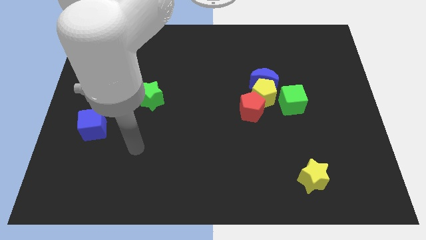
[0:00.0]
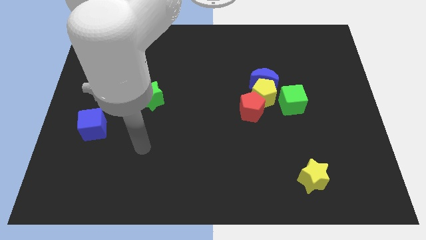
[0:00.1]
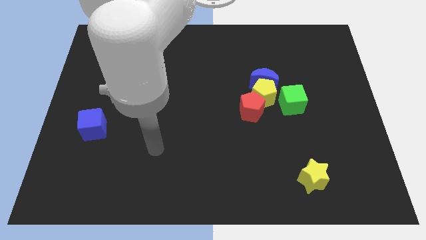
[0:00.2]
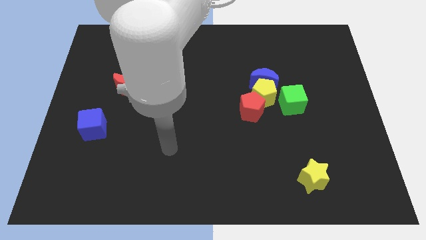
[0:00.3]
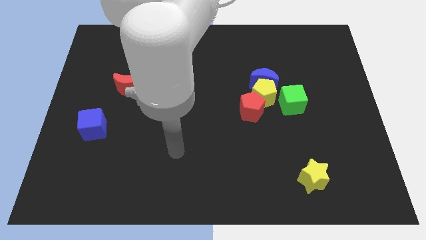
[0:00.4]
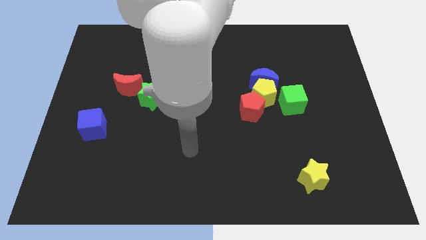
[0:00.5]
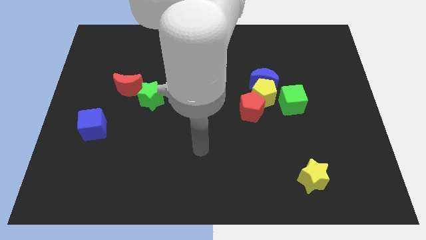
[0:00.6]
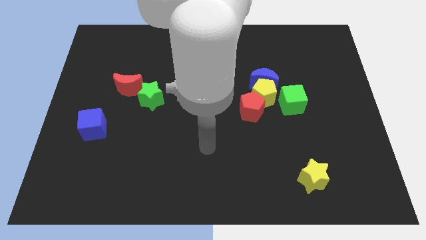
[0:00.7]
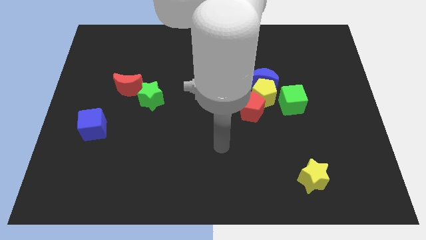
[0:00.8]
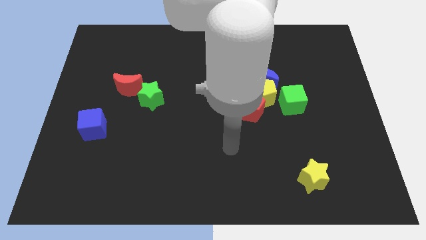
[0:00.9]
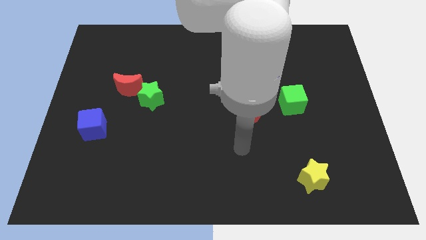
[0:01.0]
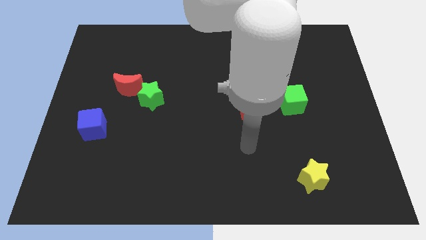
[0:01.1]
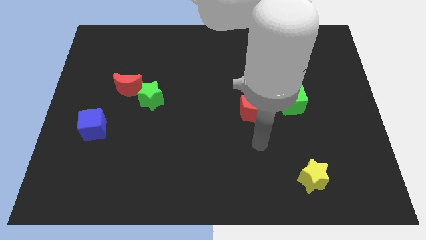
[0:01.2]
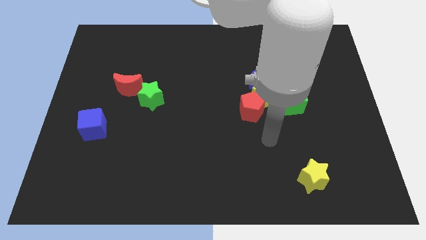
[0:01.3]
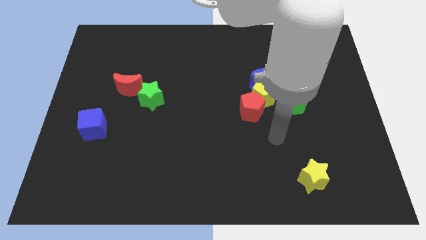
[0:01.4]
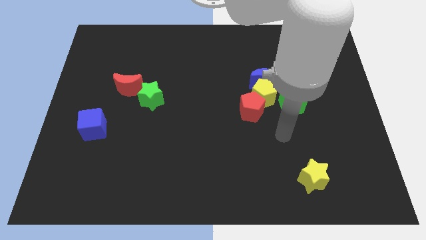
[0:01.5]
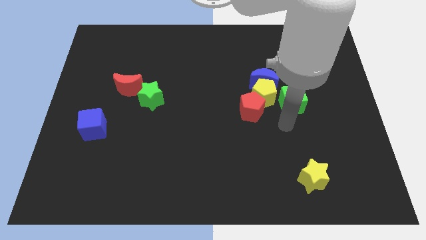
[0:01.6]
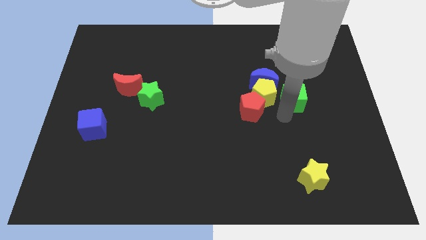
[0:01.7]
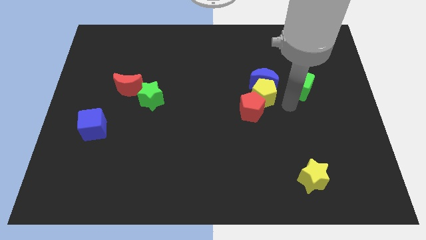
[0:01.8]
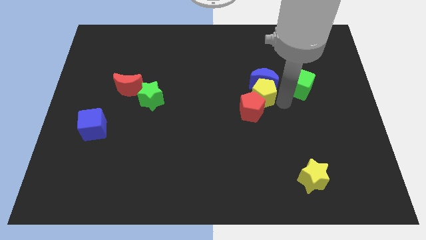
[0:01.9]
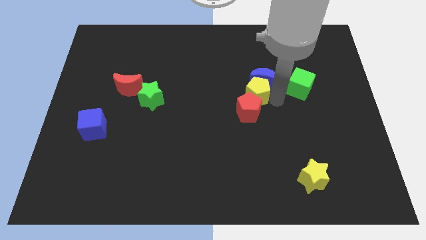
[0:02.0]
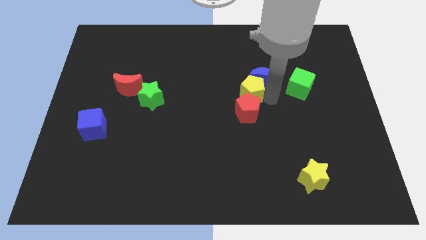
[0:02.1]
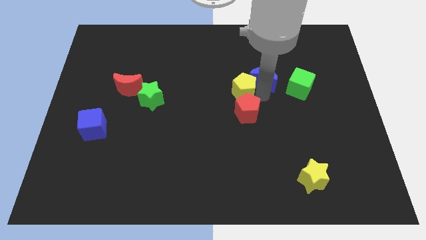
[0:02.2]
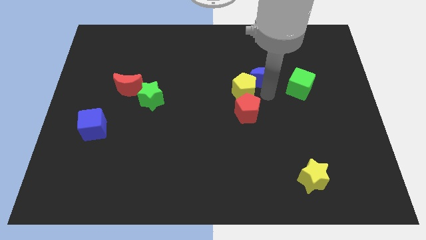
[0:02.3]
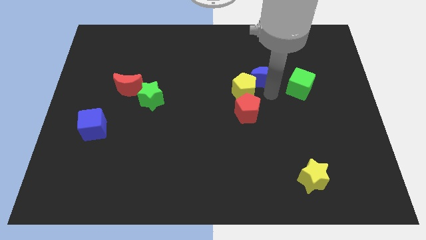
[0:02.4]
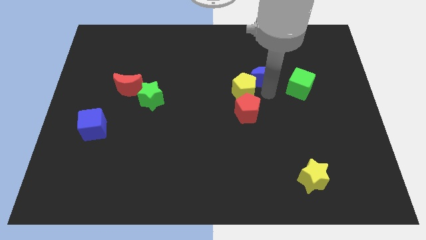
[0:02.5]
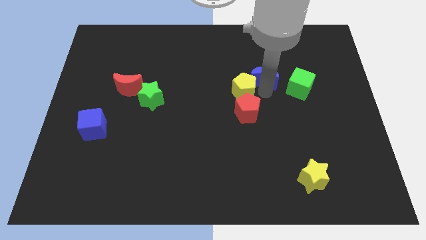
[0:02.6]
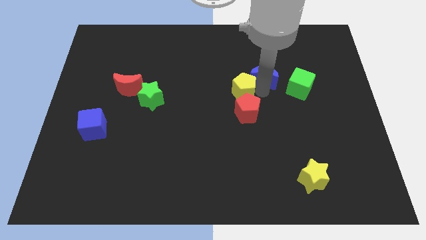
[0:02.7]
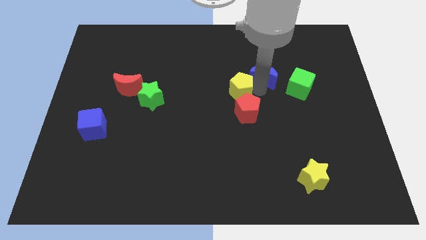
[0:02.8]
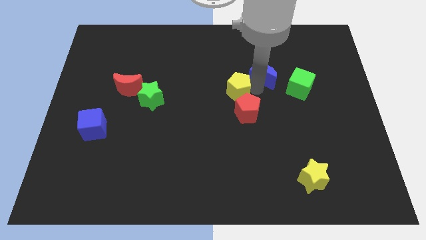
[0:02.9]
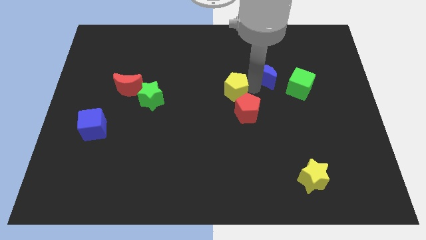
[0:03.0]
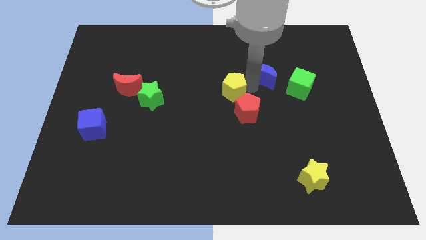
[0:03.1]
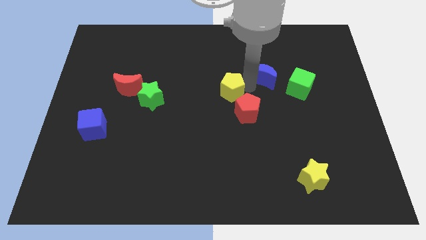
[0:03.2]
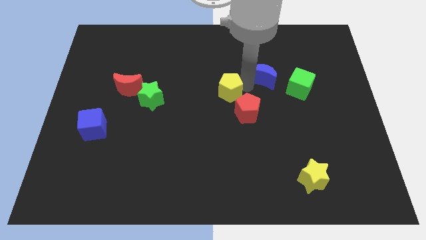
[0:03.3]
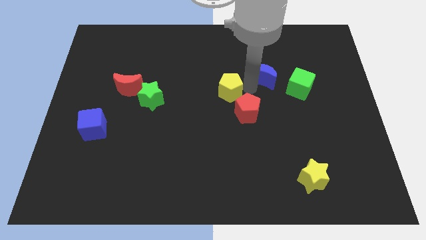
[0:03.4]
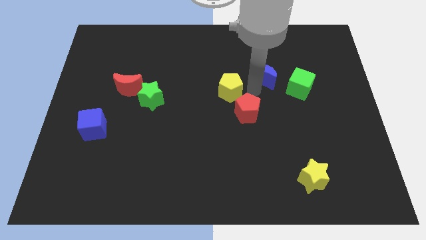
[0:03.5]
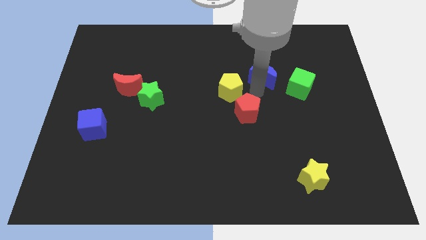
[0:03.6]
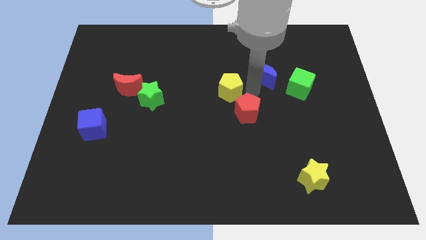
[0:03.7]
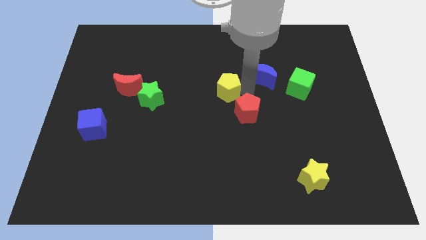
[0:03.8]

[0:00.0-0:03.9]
pull the yellow pentagon apart from the blue moon, red pentagon, and green cube

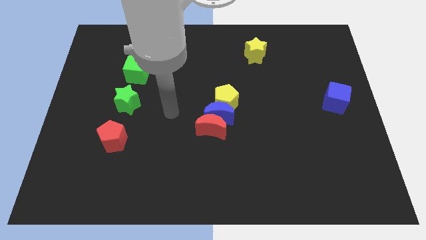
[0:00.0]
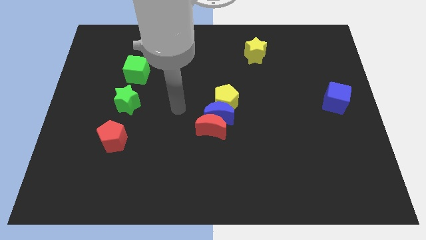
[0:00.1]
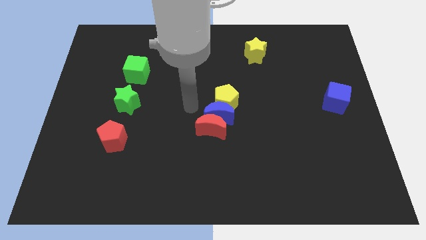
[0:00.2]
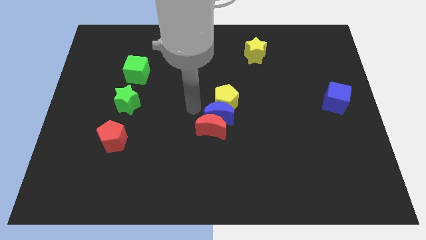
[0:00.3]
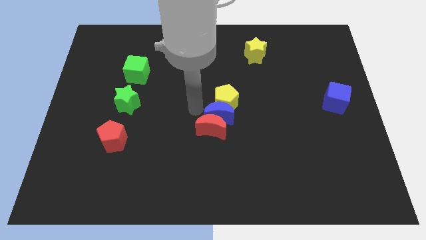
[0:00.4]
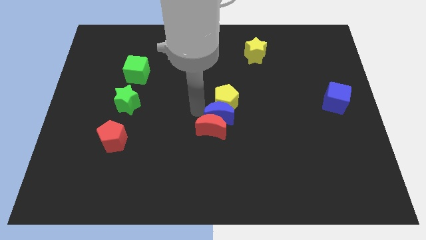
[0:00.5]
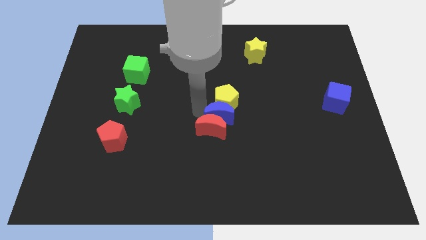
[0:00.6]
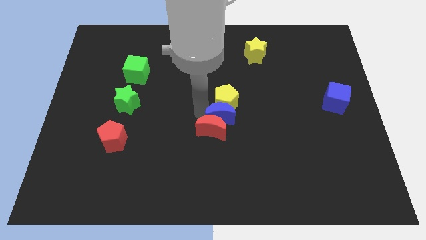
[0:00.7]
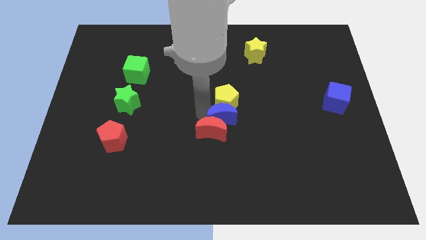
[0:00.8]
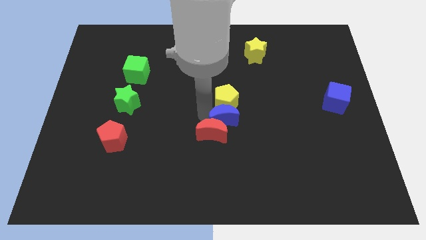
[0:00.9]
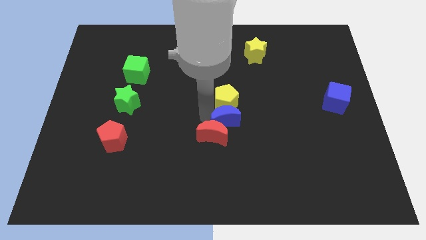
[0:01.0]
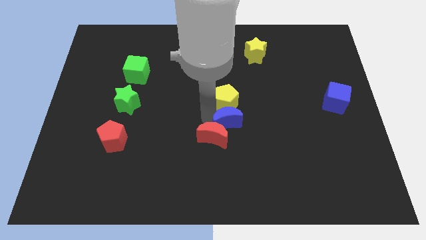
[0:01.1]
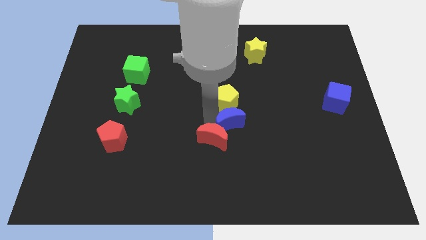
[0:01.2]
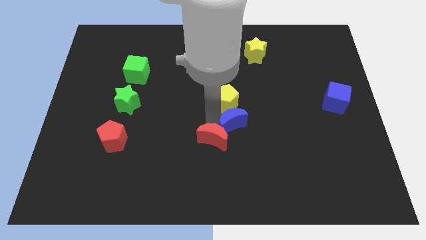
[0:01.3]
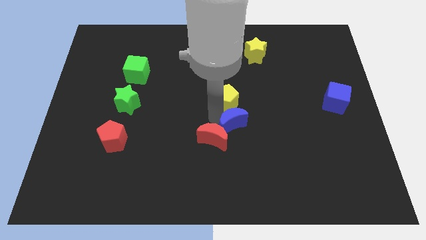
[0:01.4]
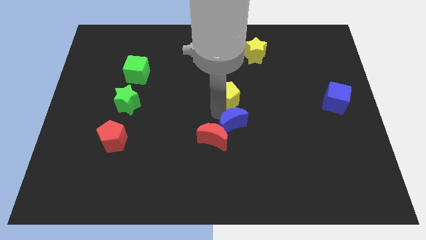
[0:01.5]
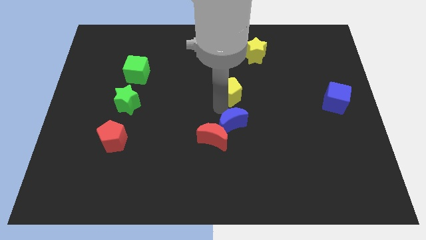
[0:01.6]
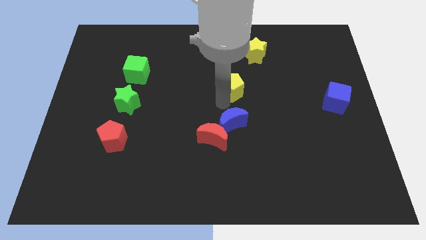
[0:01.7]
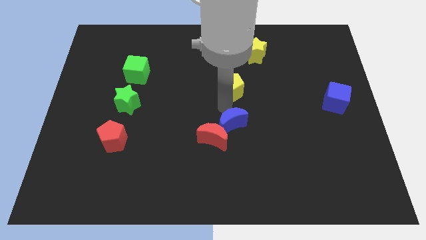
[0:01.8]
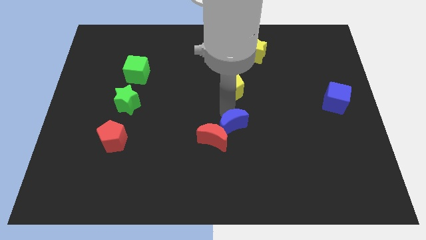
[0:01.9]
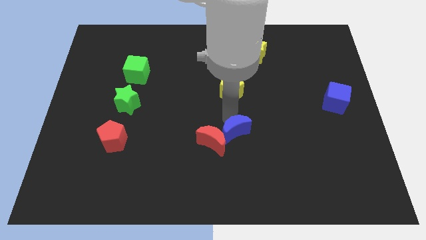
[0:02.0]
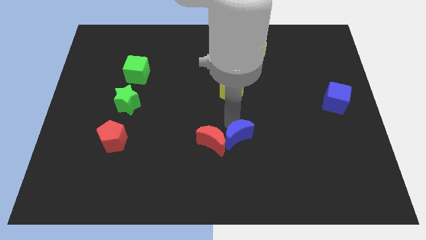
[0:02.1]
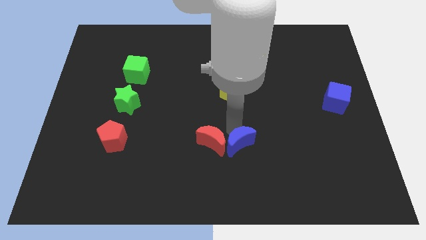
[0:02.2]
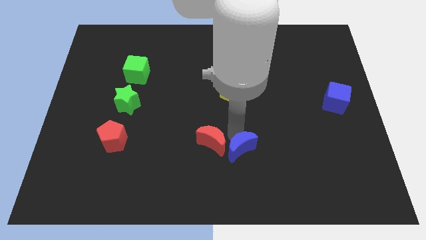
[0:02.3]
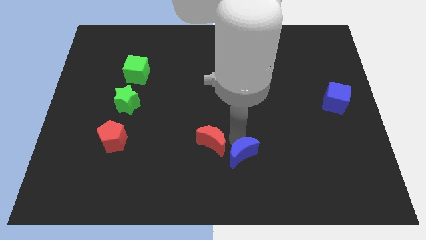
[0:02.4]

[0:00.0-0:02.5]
pull the blue moon apart from the red moon and yellow pentagon

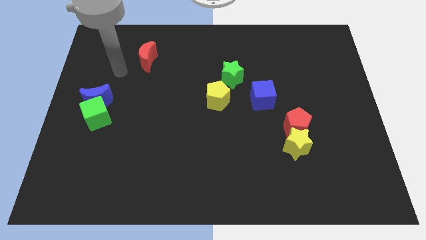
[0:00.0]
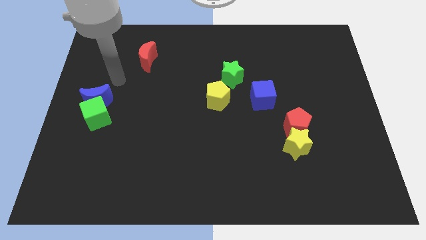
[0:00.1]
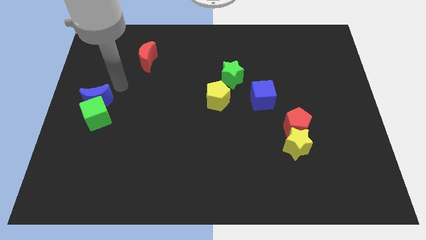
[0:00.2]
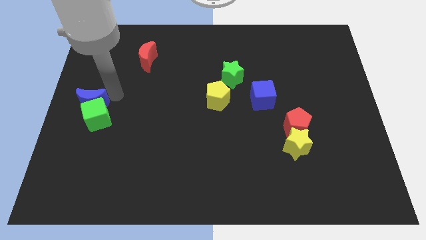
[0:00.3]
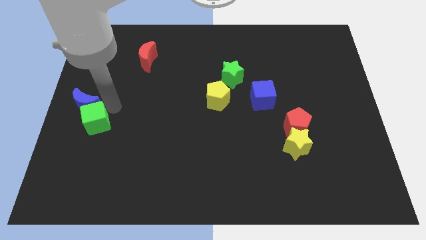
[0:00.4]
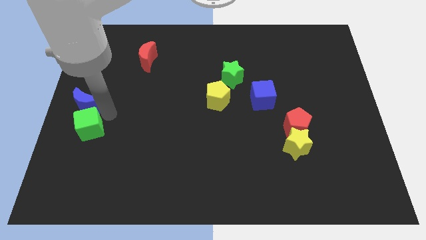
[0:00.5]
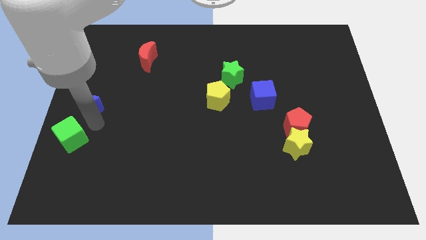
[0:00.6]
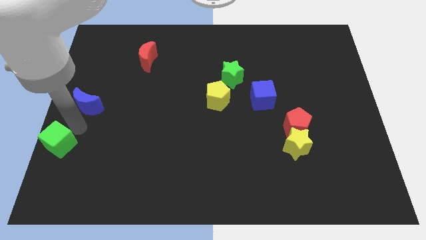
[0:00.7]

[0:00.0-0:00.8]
move the blue moon away from the green cube

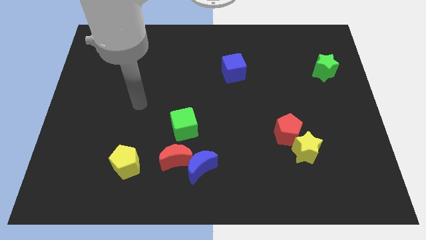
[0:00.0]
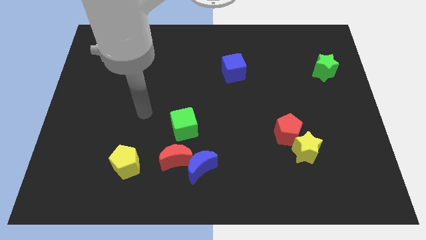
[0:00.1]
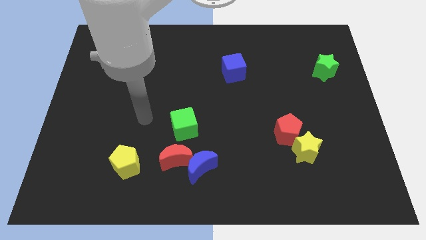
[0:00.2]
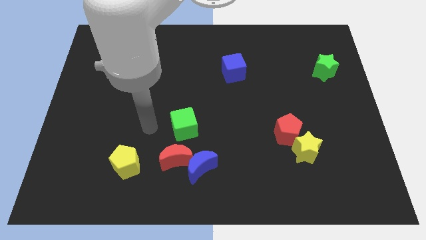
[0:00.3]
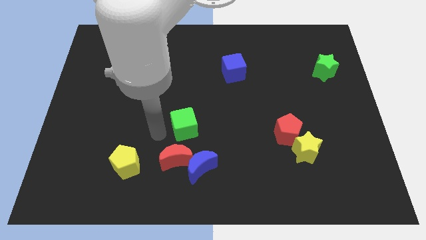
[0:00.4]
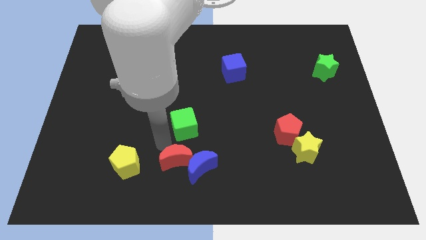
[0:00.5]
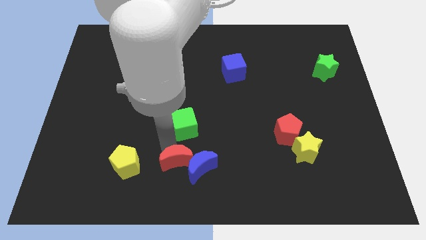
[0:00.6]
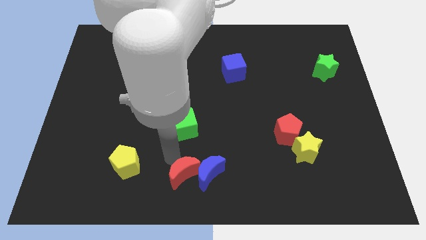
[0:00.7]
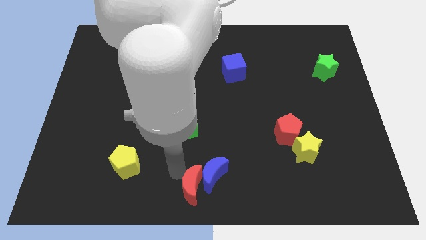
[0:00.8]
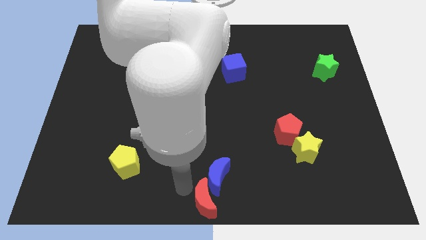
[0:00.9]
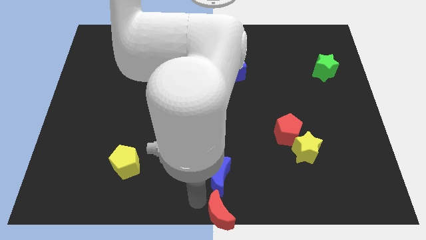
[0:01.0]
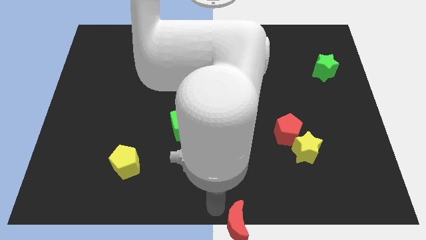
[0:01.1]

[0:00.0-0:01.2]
separate the blue moon from the red moon

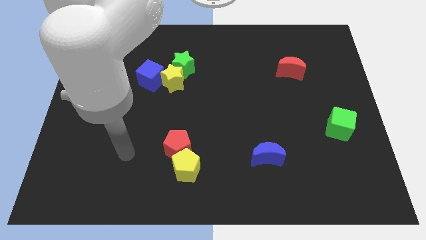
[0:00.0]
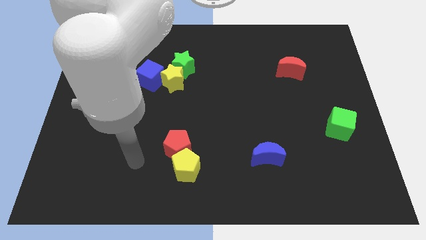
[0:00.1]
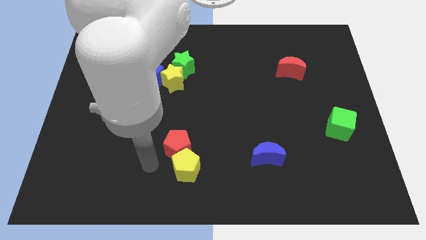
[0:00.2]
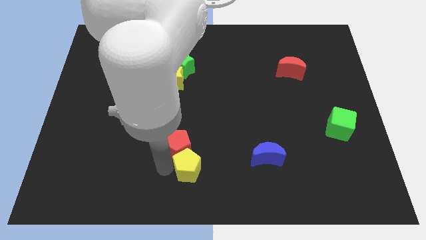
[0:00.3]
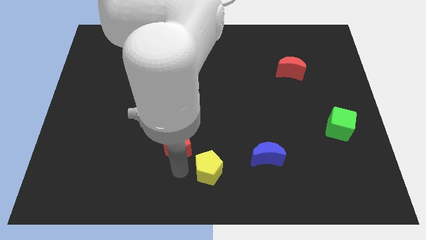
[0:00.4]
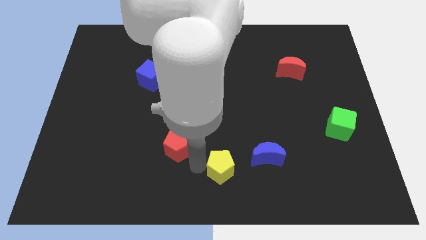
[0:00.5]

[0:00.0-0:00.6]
separate the red pentagon from the yellow pentagon

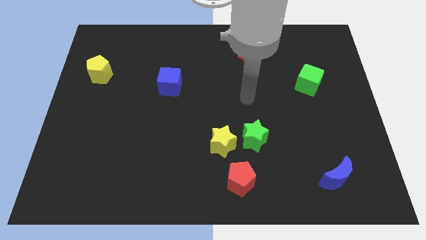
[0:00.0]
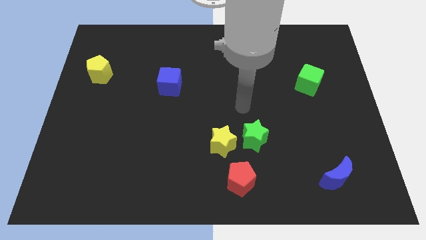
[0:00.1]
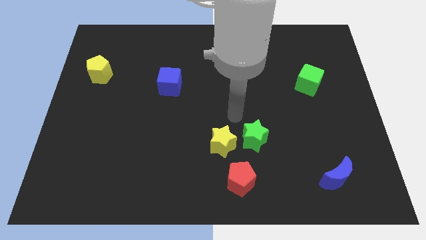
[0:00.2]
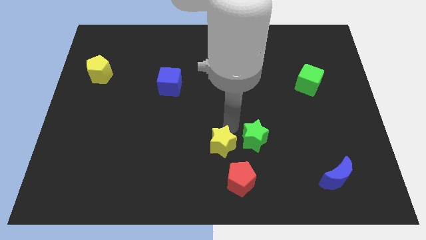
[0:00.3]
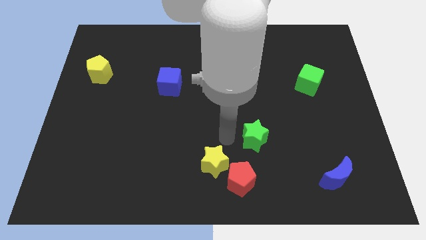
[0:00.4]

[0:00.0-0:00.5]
pull the green star apart from the yellow star
